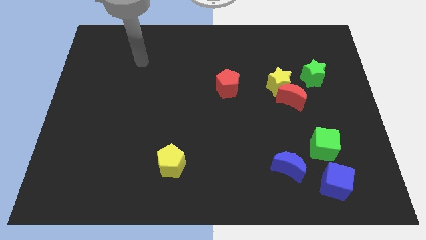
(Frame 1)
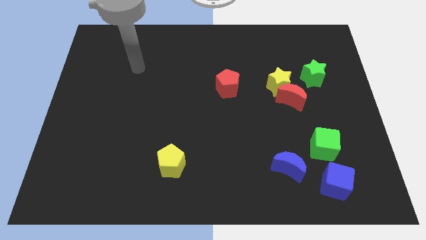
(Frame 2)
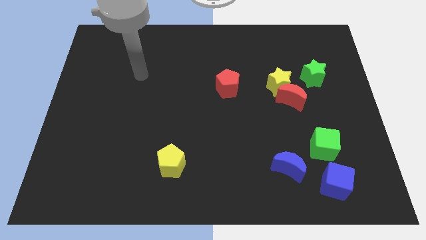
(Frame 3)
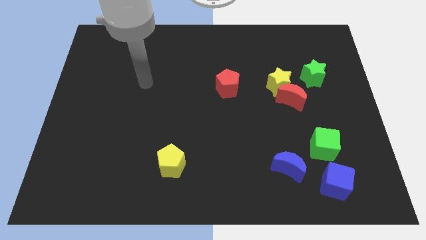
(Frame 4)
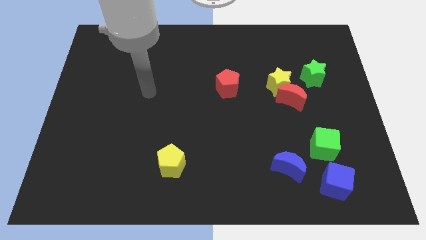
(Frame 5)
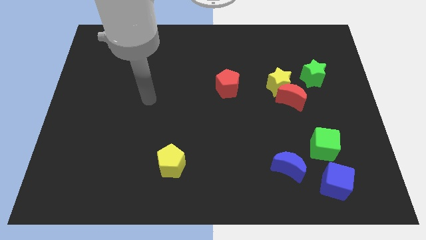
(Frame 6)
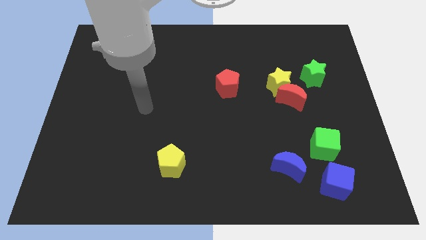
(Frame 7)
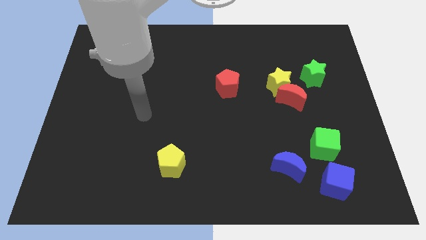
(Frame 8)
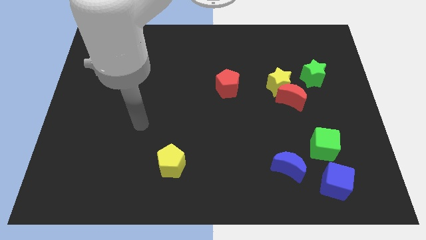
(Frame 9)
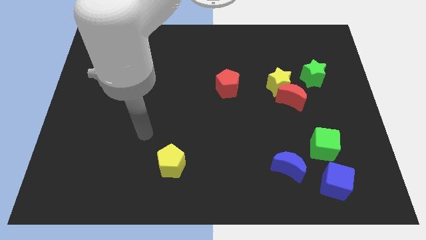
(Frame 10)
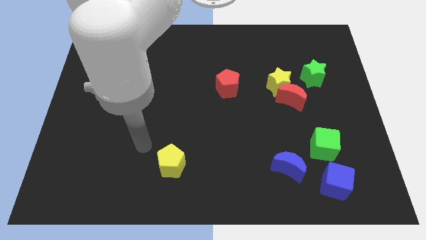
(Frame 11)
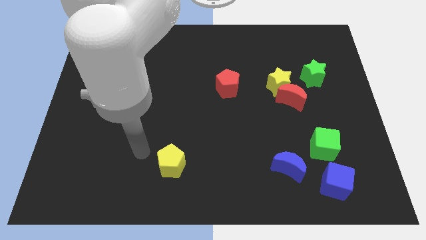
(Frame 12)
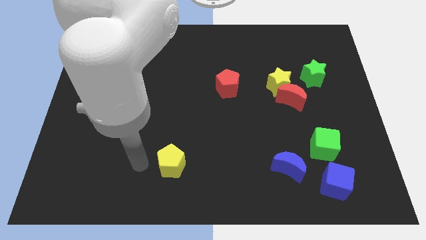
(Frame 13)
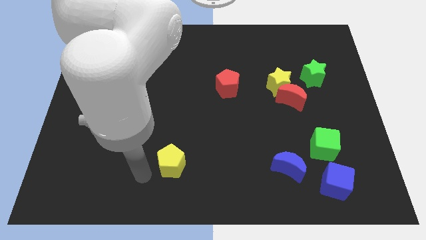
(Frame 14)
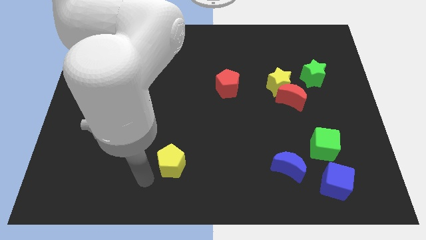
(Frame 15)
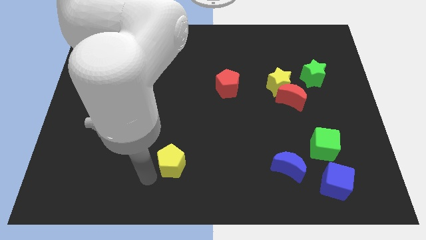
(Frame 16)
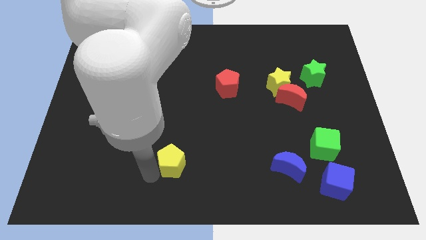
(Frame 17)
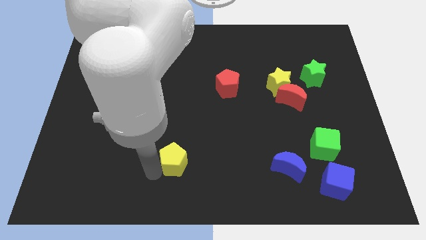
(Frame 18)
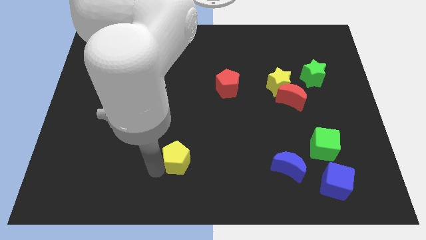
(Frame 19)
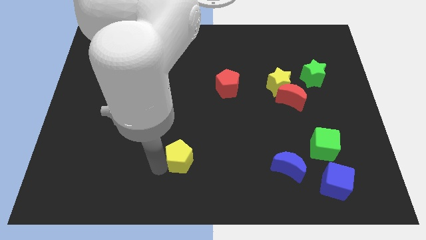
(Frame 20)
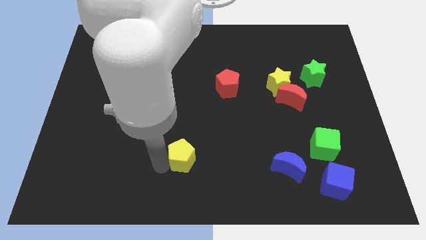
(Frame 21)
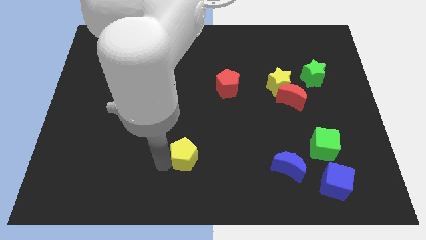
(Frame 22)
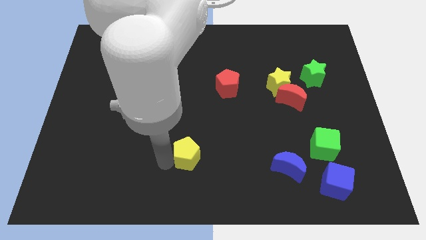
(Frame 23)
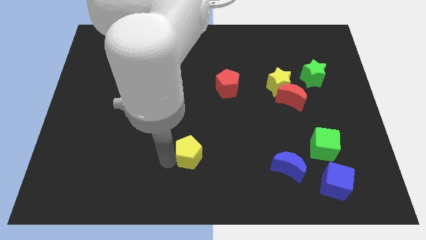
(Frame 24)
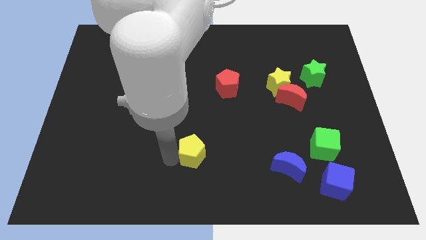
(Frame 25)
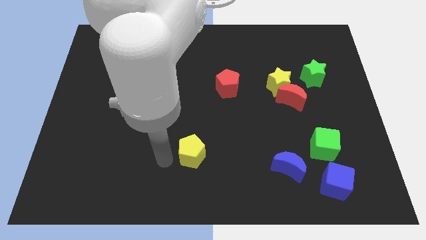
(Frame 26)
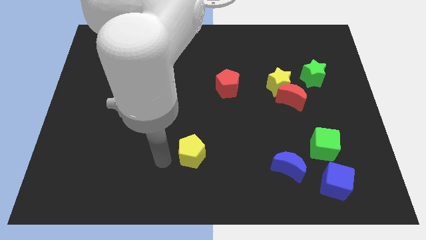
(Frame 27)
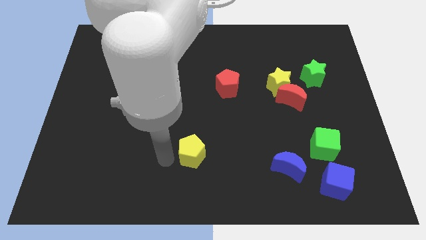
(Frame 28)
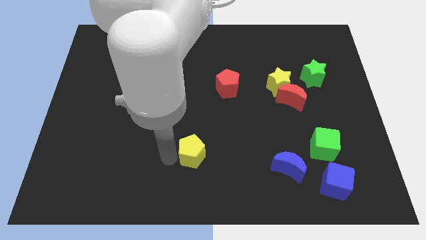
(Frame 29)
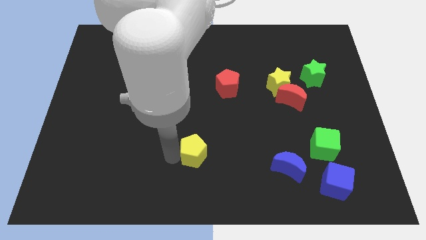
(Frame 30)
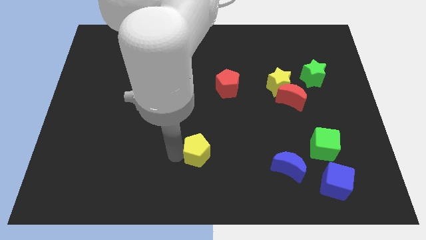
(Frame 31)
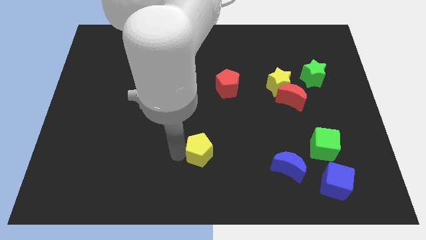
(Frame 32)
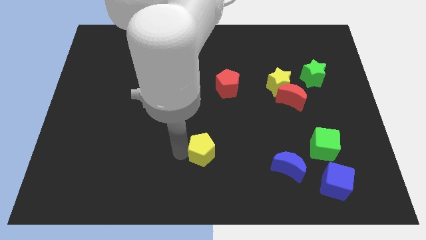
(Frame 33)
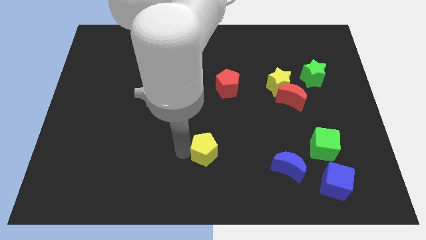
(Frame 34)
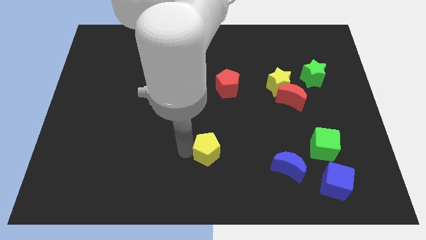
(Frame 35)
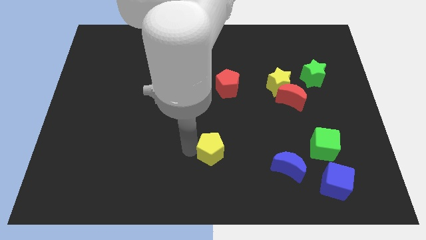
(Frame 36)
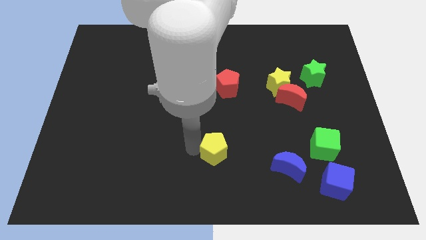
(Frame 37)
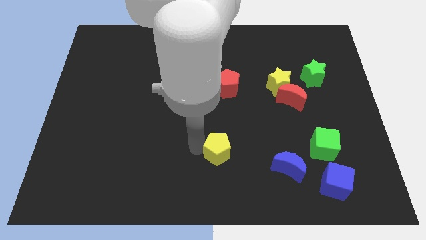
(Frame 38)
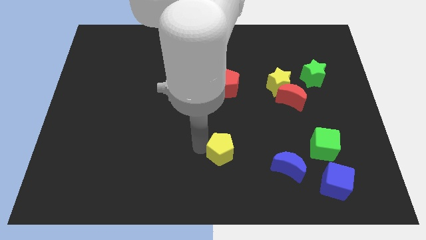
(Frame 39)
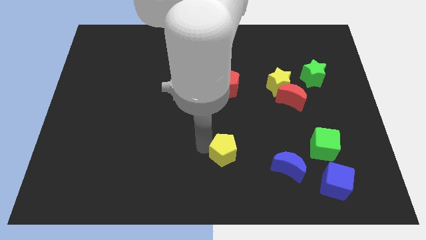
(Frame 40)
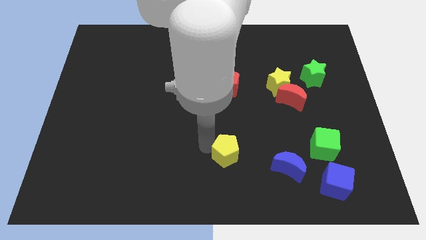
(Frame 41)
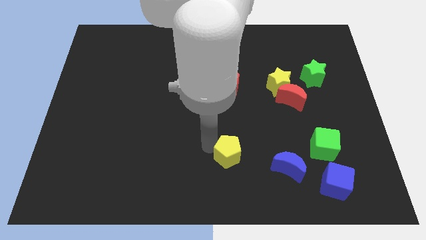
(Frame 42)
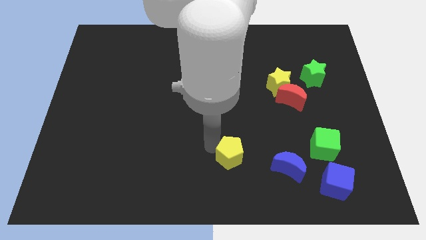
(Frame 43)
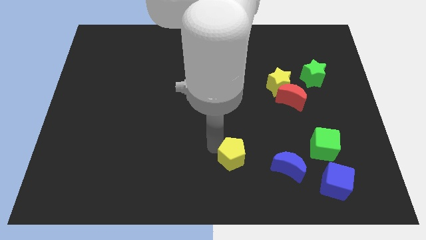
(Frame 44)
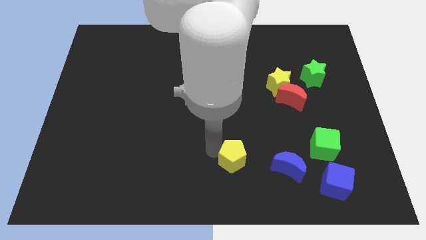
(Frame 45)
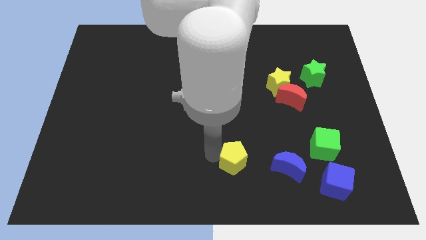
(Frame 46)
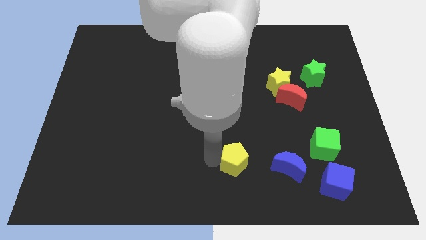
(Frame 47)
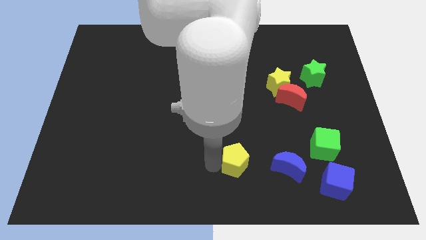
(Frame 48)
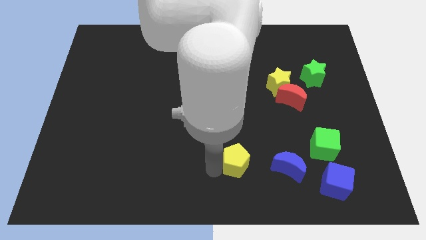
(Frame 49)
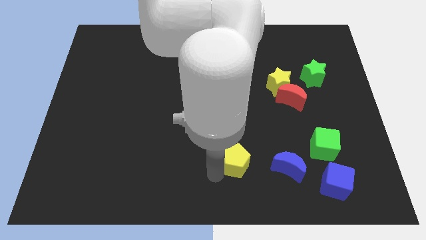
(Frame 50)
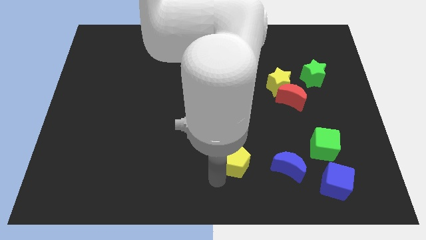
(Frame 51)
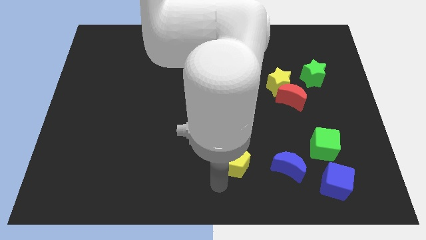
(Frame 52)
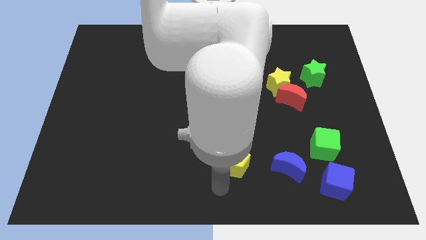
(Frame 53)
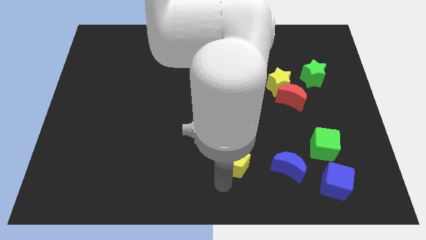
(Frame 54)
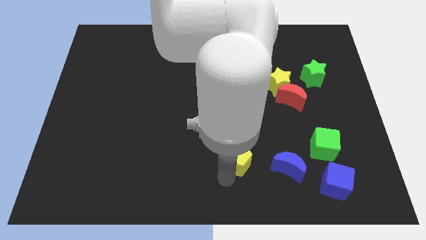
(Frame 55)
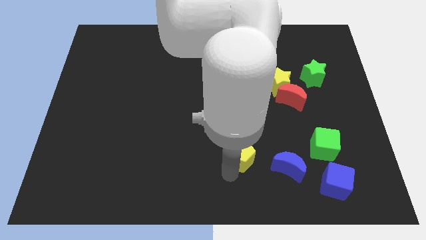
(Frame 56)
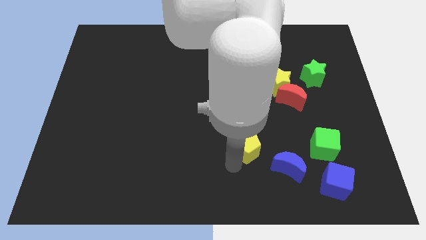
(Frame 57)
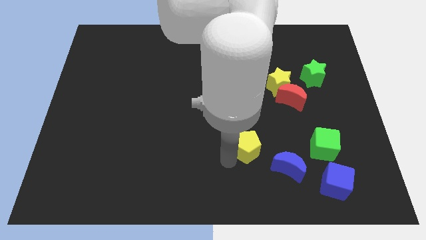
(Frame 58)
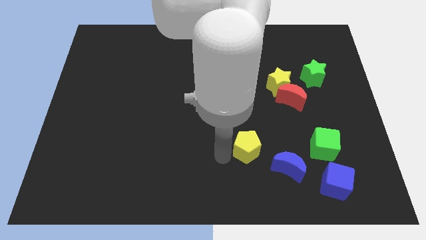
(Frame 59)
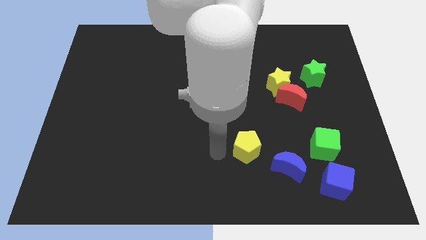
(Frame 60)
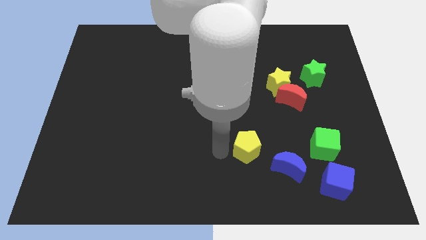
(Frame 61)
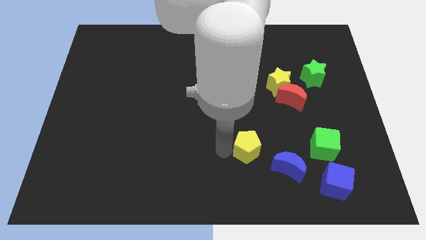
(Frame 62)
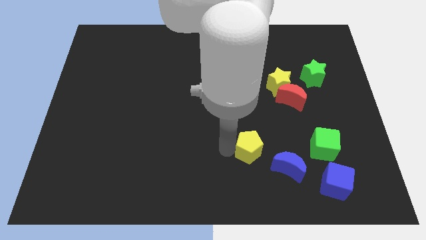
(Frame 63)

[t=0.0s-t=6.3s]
slide the yellow pentagon left of the green cube
